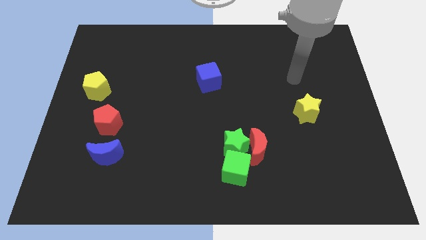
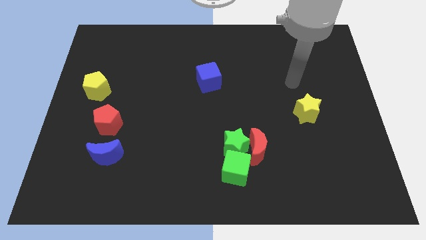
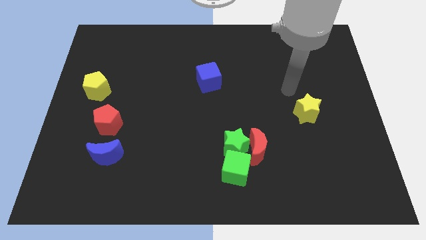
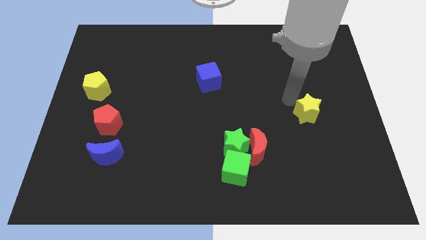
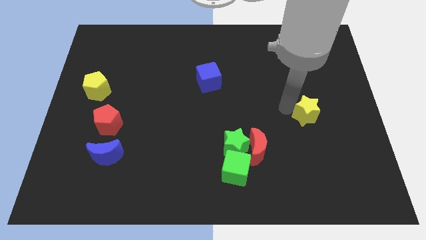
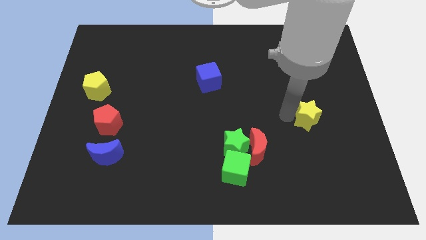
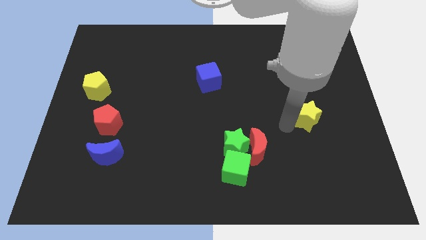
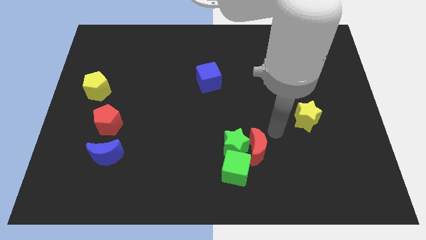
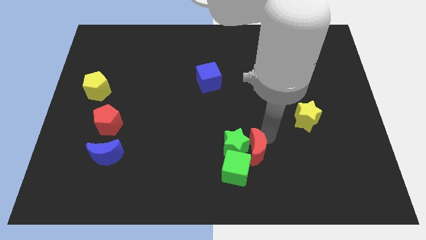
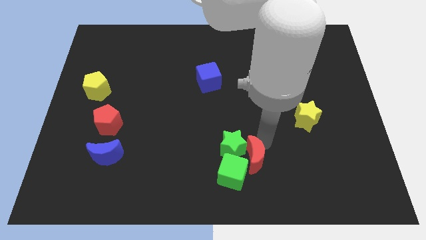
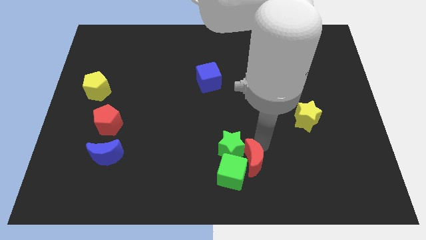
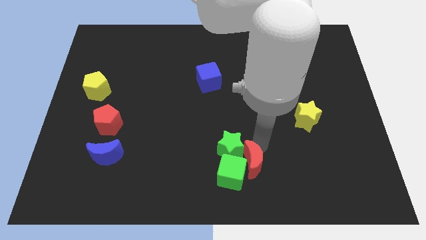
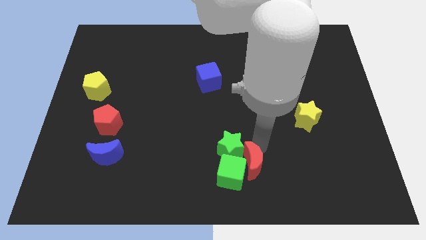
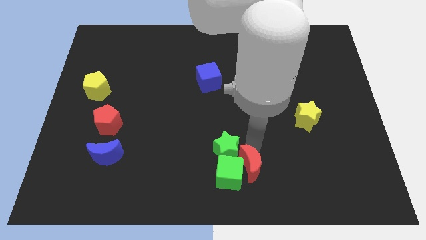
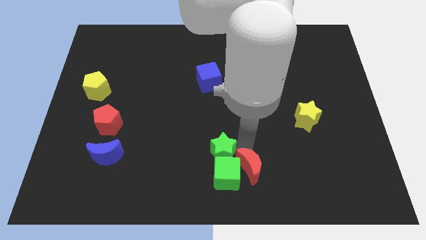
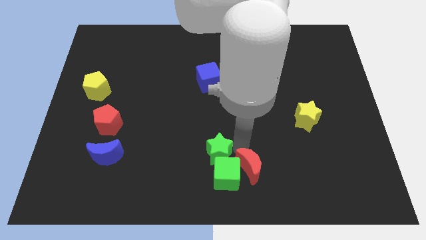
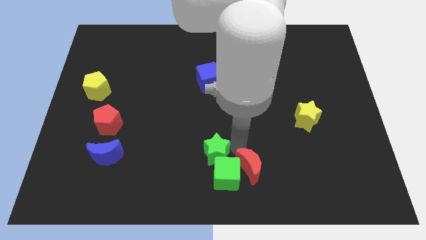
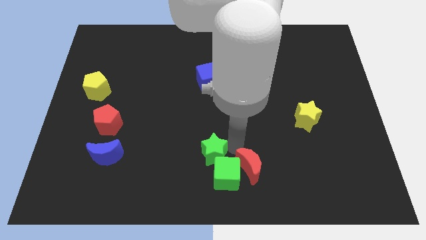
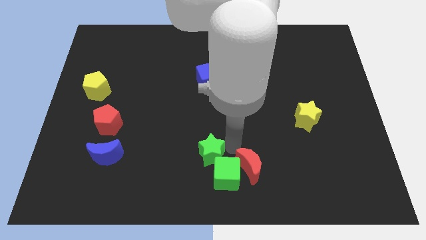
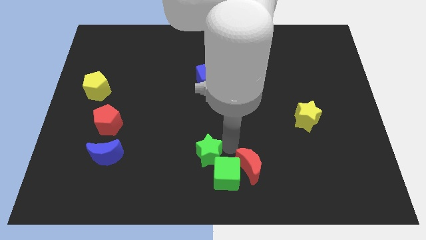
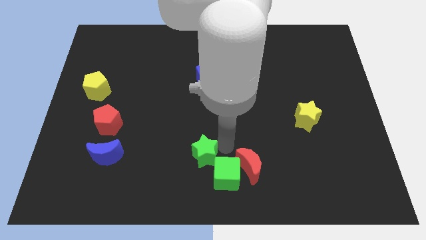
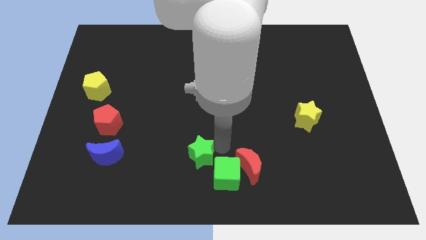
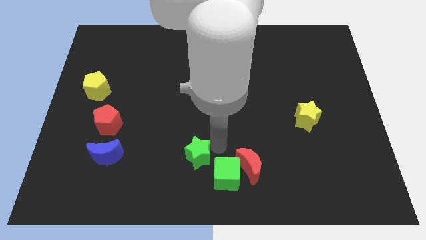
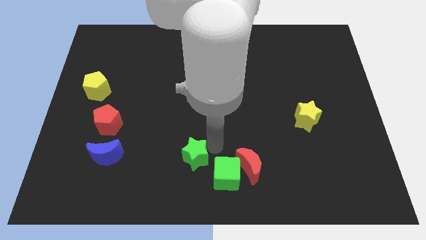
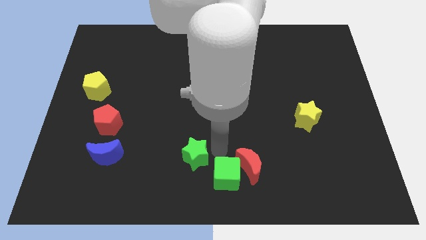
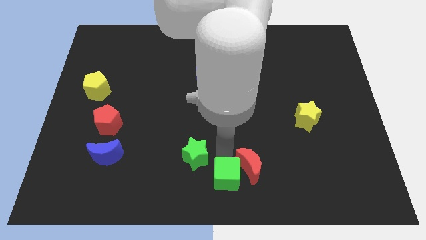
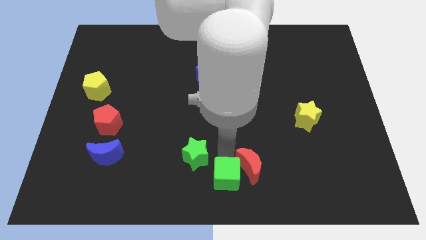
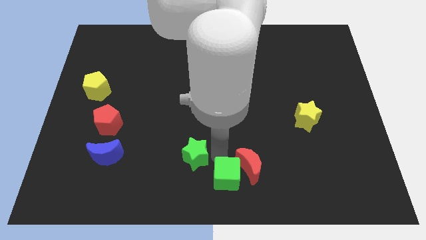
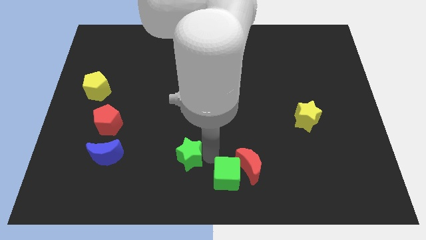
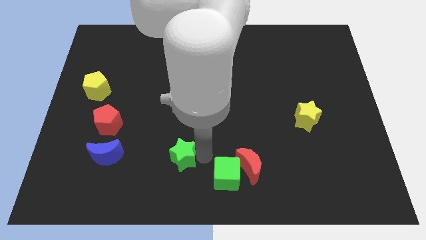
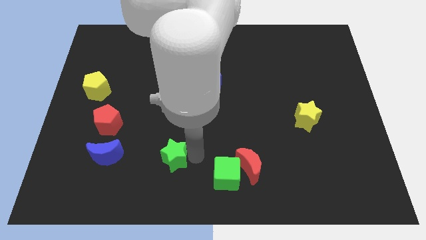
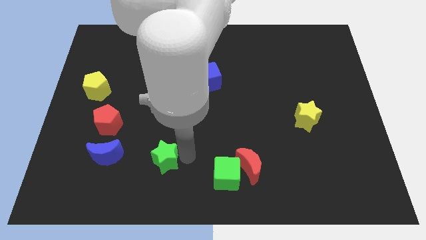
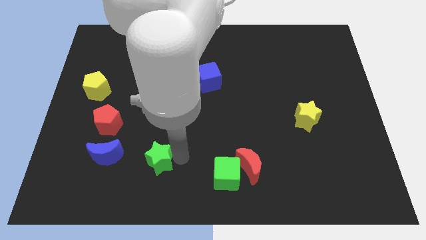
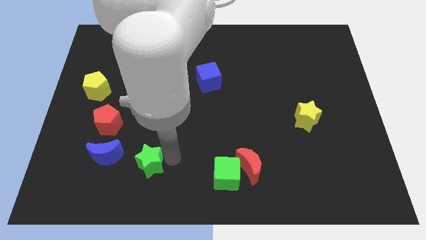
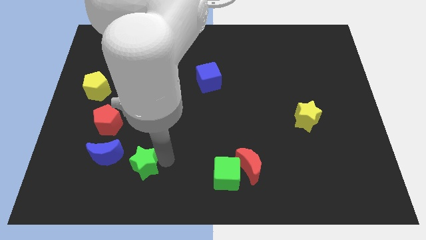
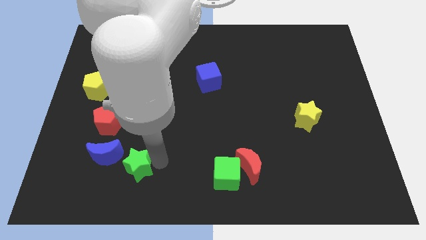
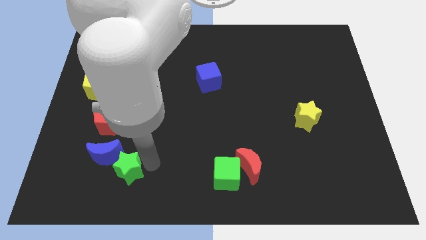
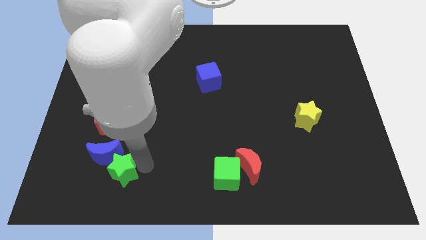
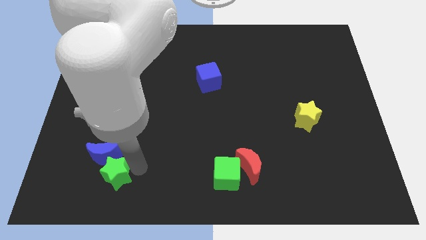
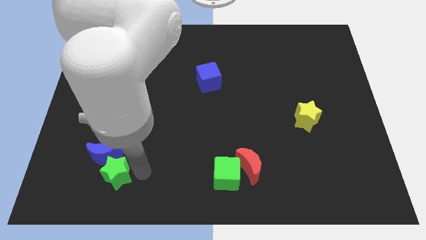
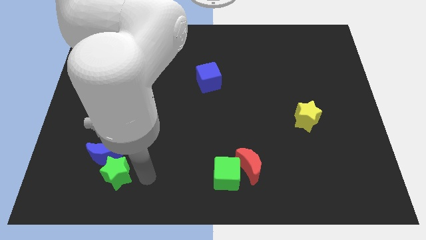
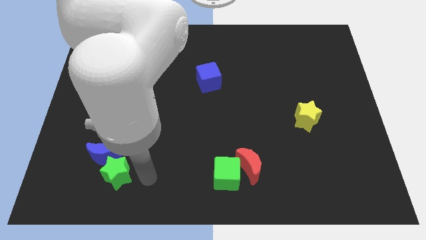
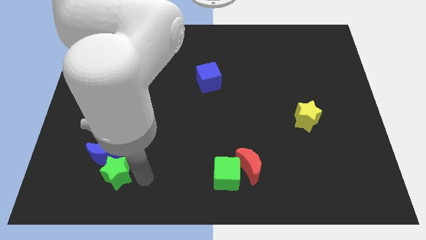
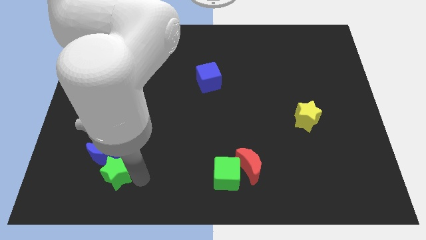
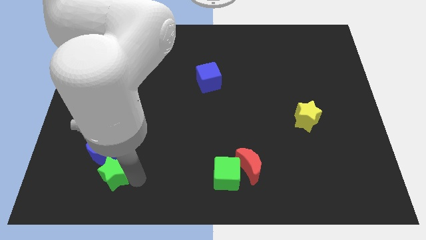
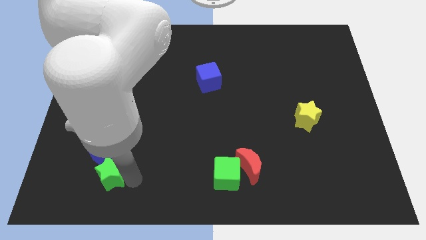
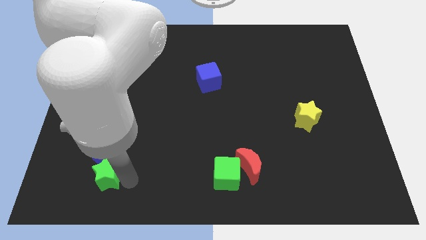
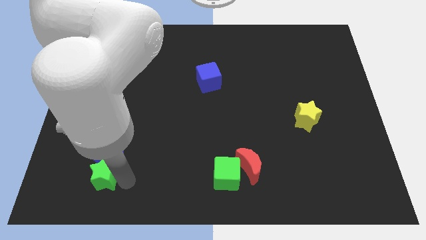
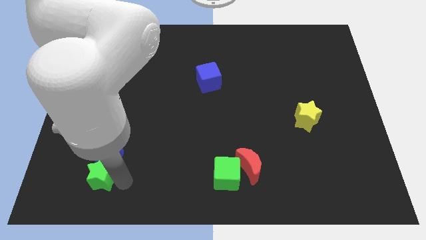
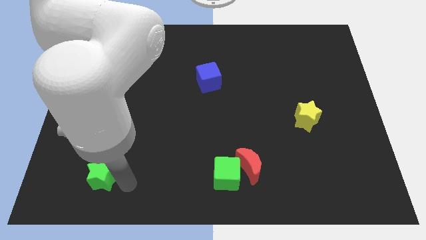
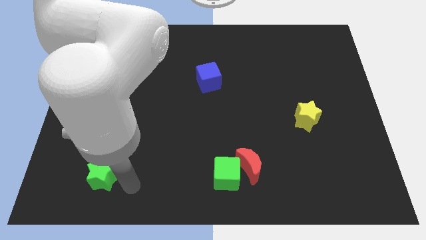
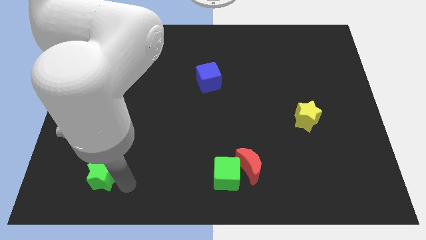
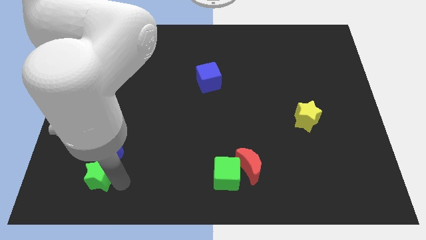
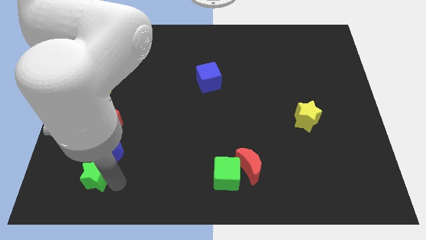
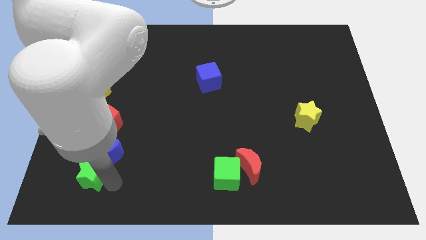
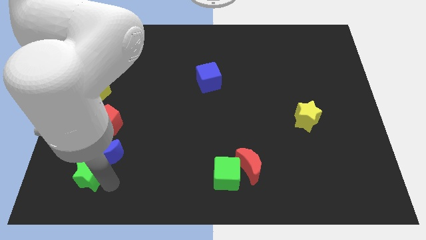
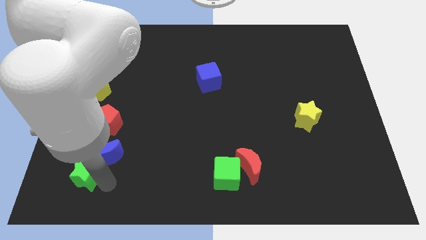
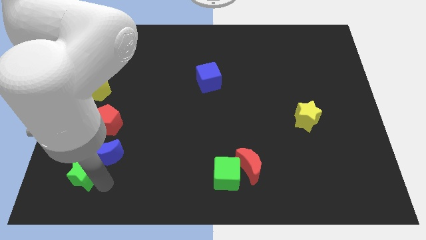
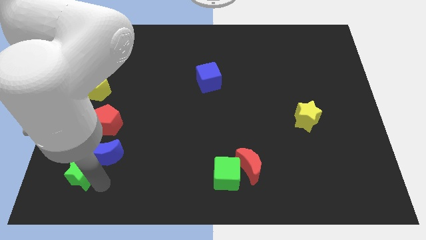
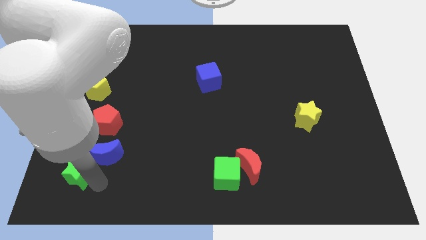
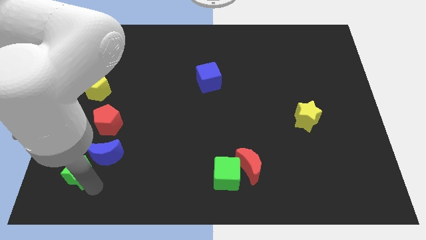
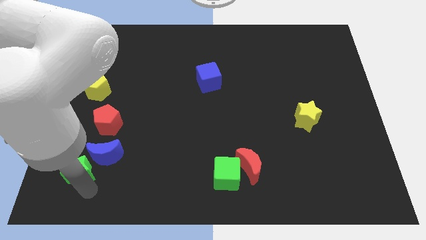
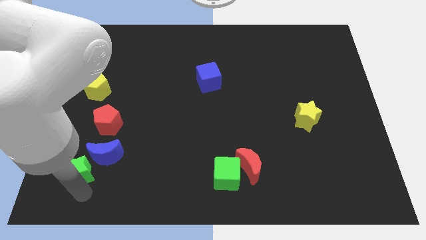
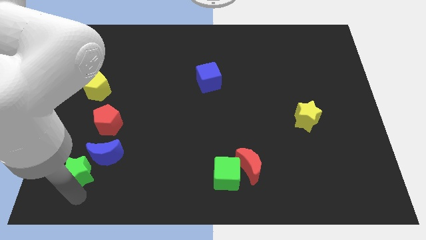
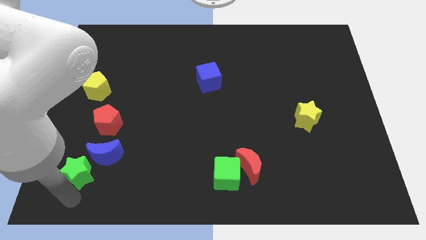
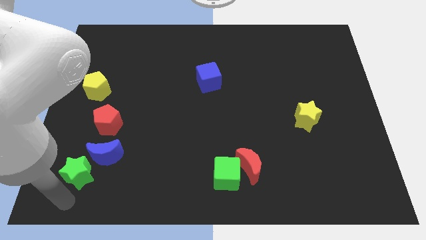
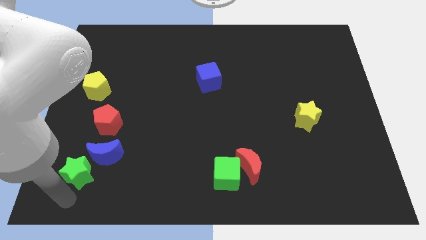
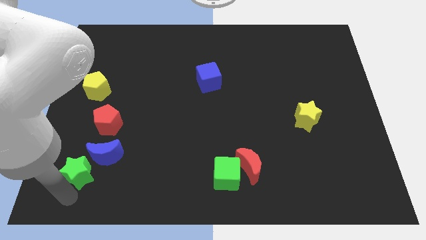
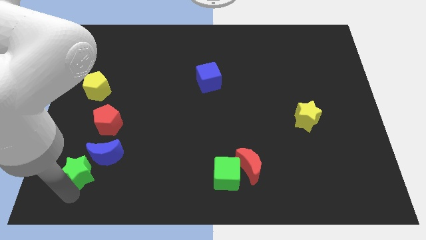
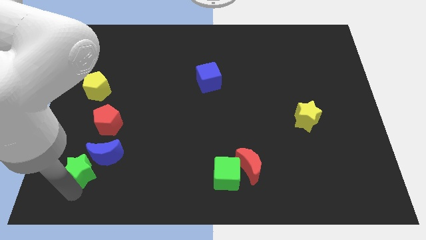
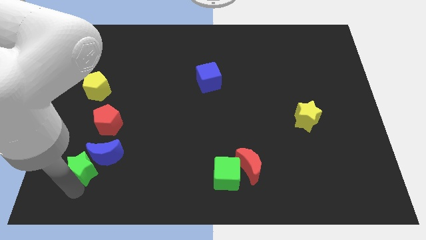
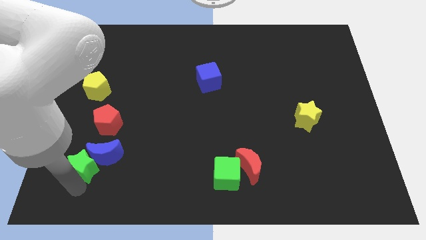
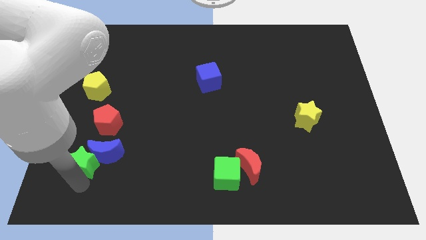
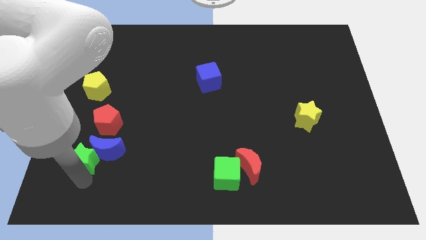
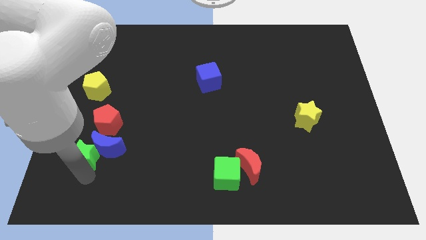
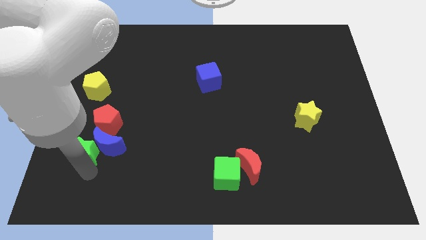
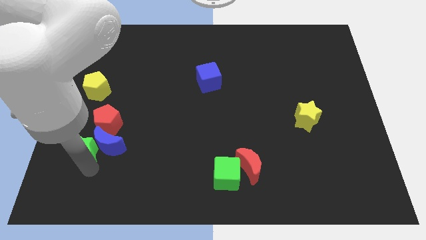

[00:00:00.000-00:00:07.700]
push the green star to the top left side of the blue moon

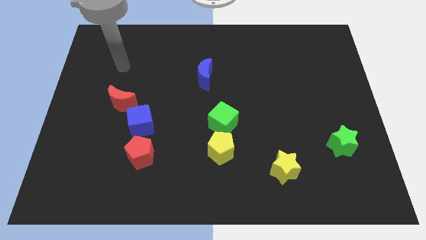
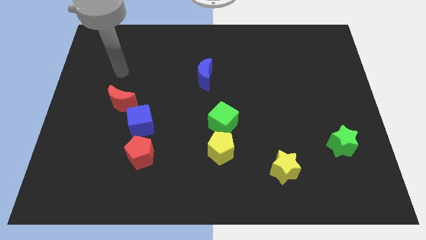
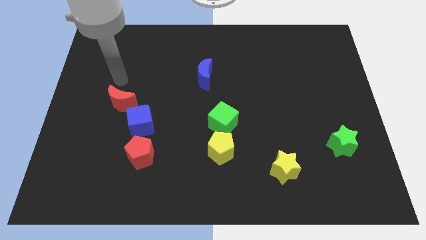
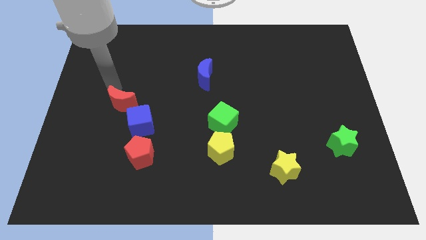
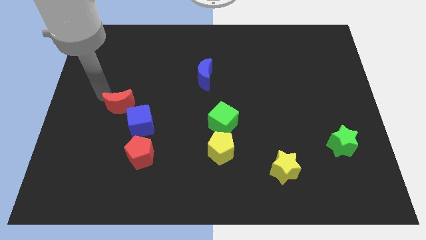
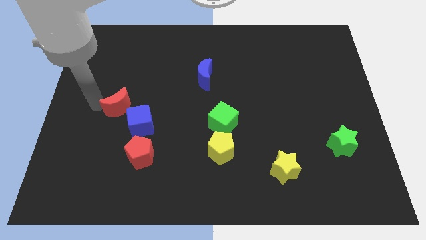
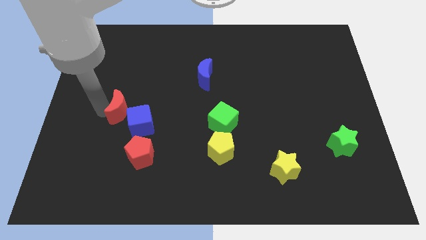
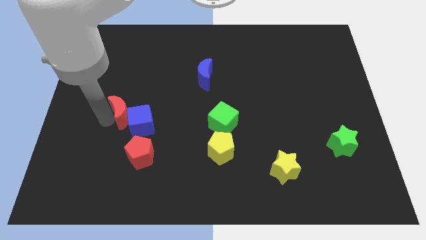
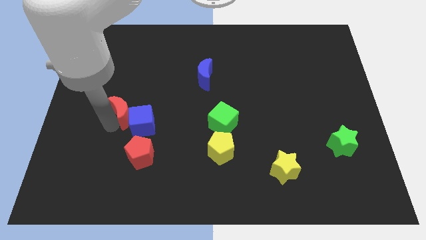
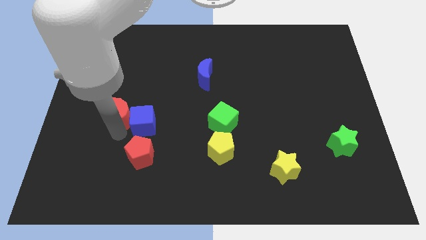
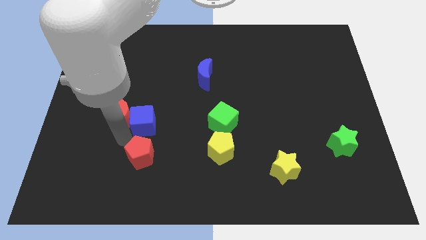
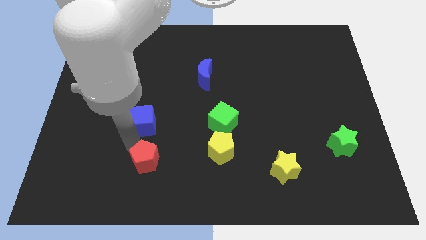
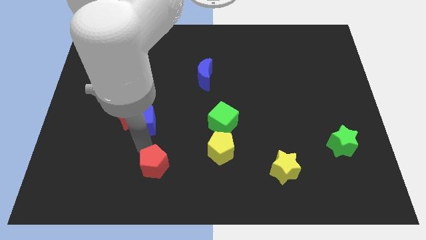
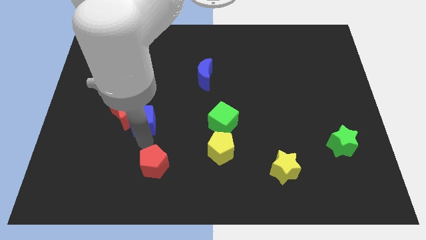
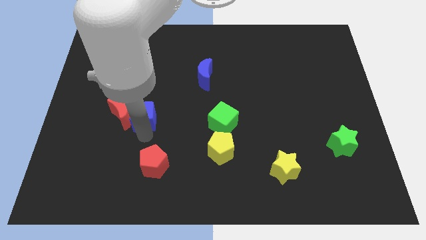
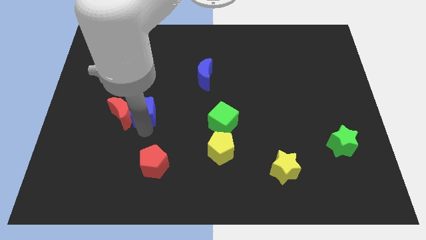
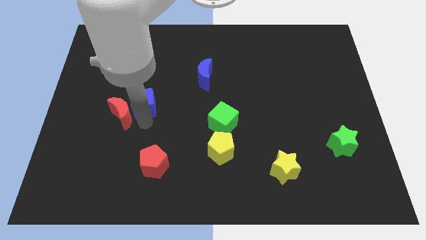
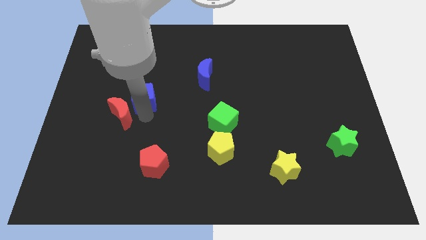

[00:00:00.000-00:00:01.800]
put the blue cube above the red moon
